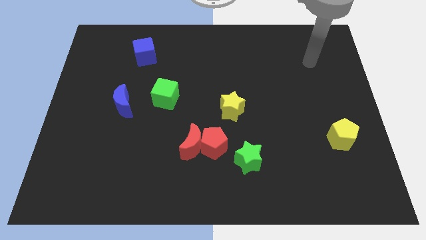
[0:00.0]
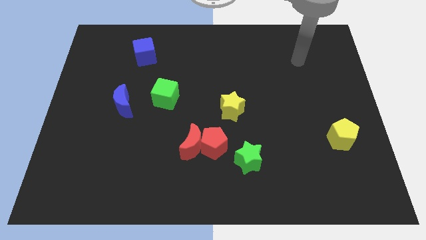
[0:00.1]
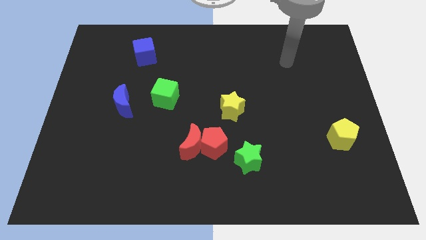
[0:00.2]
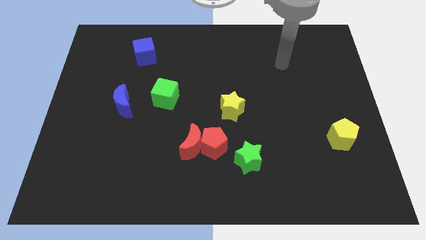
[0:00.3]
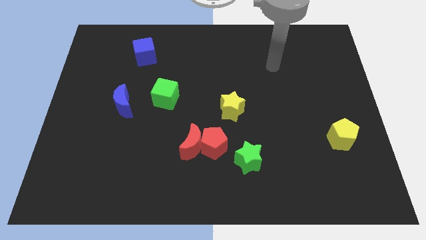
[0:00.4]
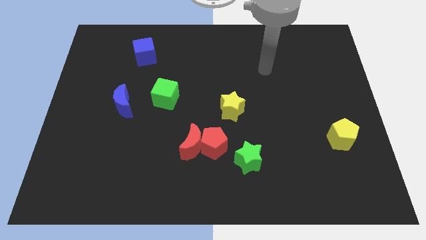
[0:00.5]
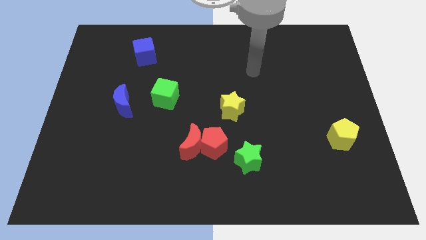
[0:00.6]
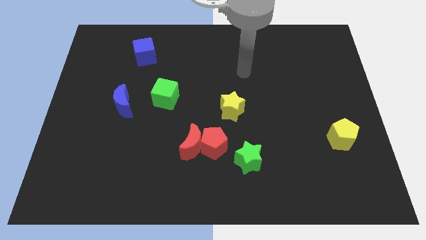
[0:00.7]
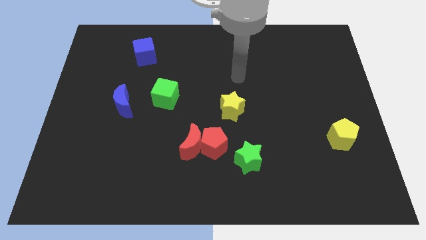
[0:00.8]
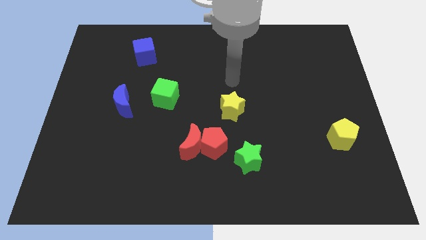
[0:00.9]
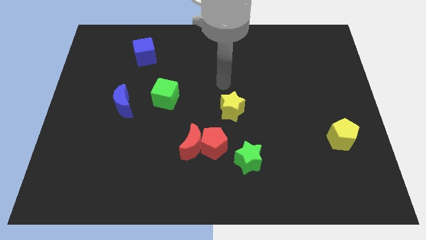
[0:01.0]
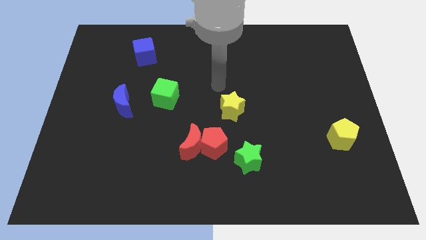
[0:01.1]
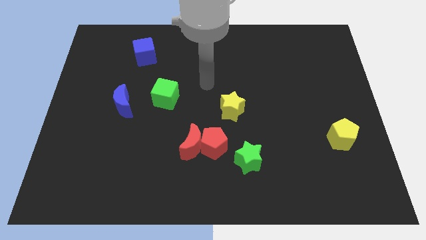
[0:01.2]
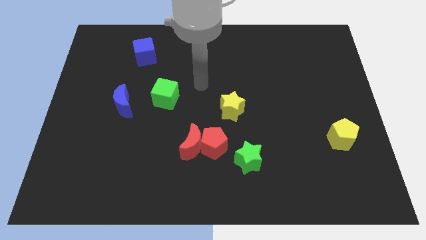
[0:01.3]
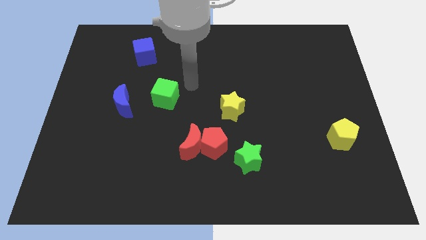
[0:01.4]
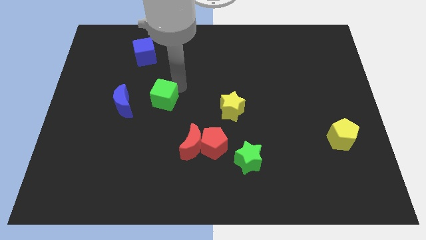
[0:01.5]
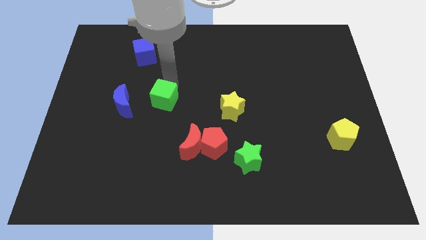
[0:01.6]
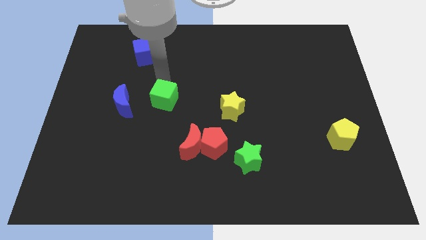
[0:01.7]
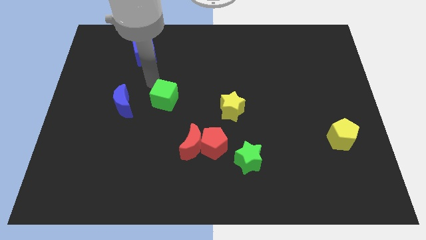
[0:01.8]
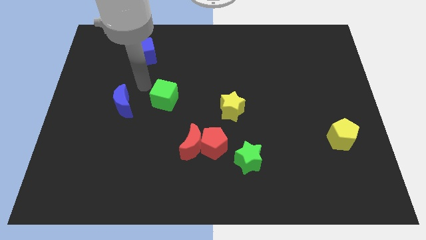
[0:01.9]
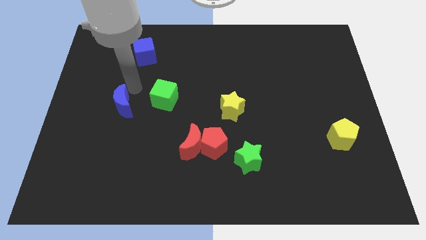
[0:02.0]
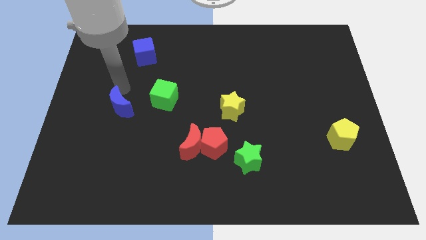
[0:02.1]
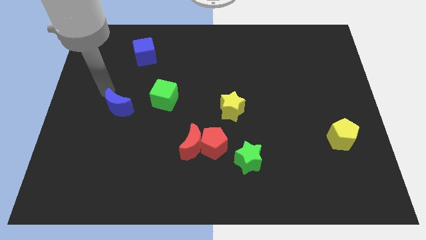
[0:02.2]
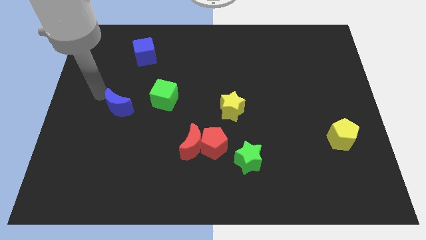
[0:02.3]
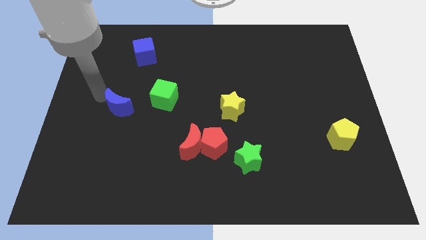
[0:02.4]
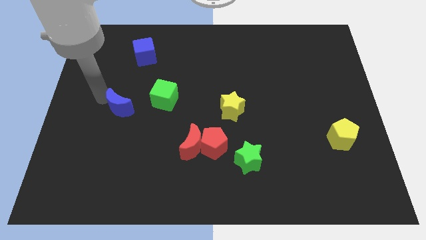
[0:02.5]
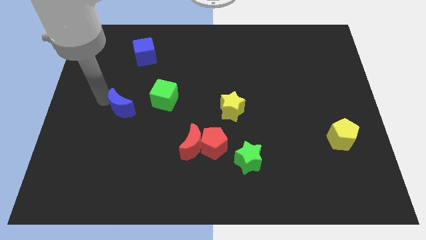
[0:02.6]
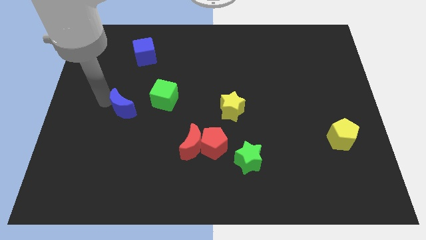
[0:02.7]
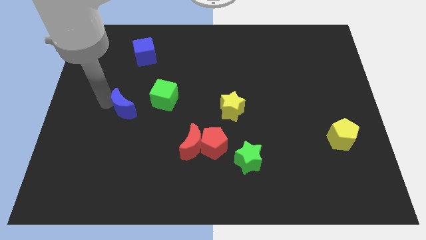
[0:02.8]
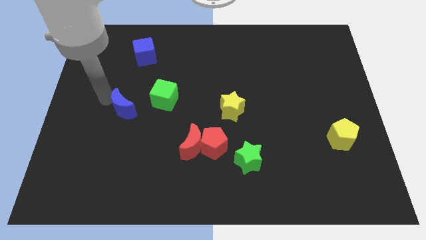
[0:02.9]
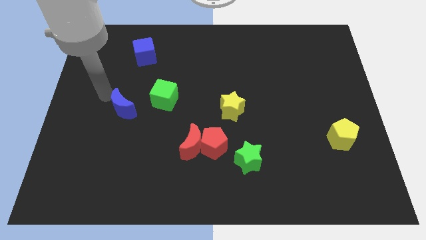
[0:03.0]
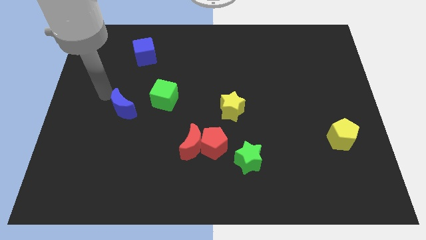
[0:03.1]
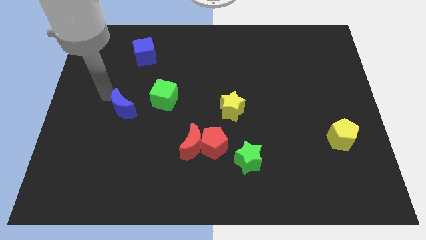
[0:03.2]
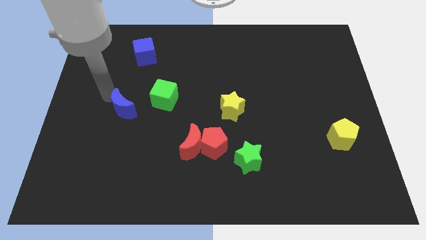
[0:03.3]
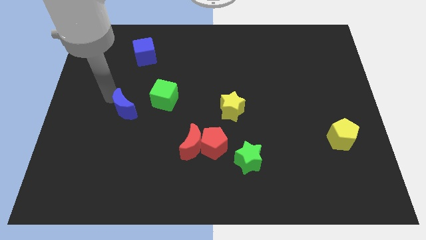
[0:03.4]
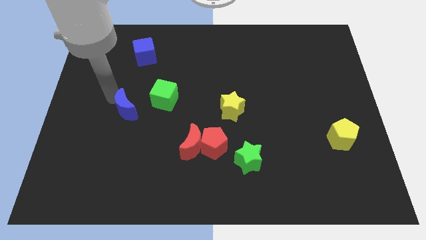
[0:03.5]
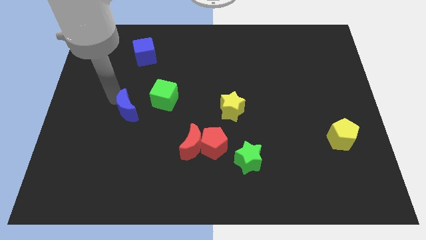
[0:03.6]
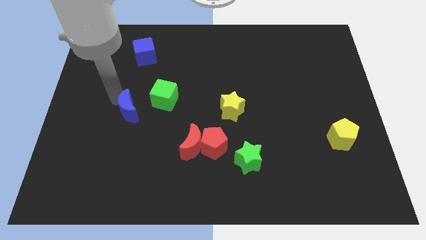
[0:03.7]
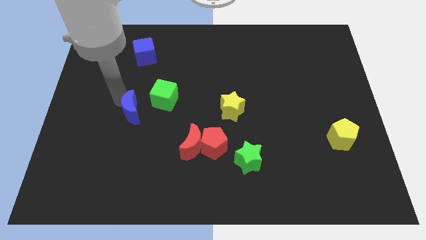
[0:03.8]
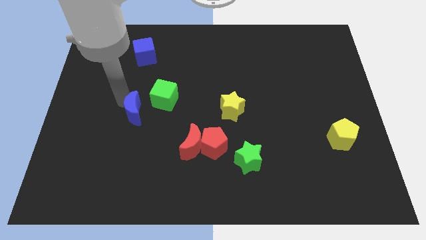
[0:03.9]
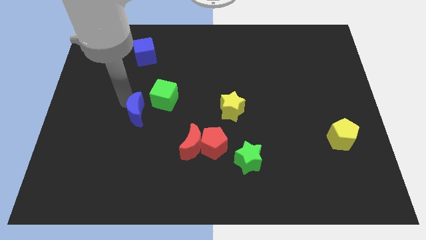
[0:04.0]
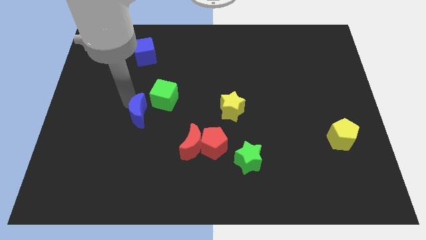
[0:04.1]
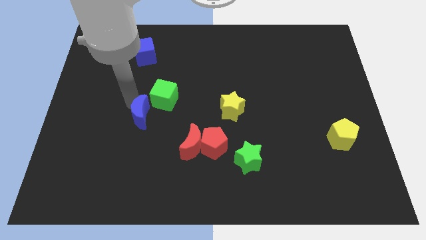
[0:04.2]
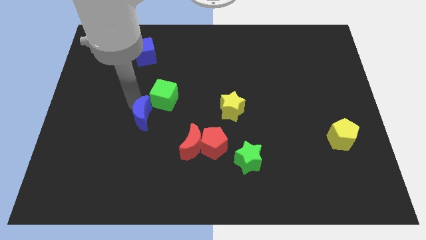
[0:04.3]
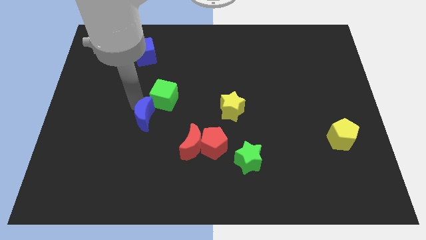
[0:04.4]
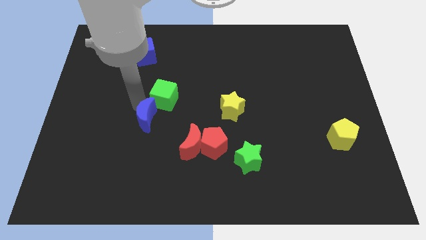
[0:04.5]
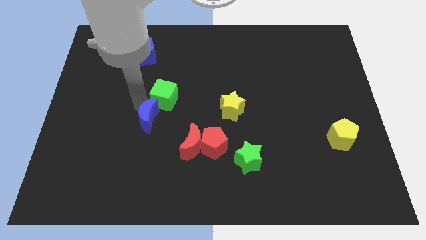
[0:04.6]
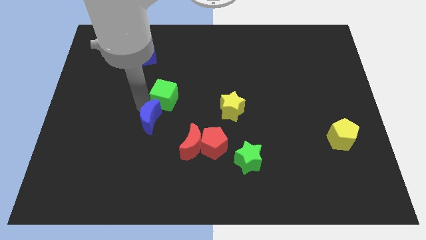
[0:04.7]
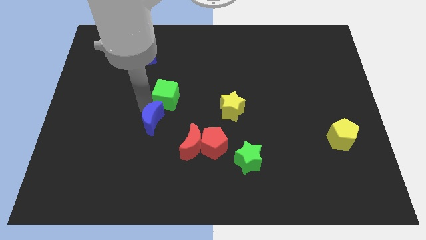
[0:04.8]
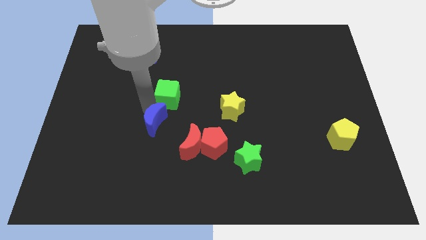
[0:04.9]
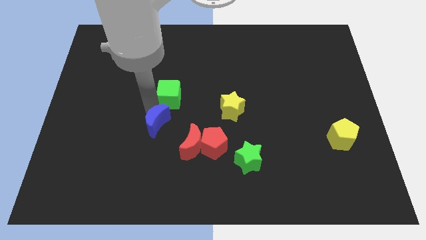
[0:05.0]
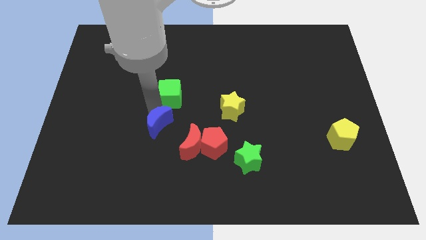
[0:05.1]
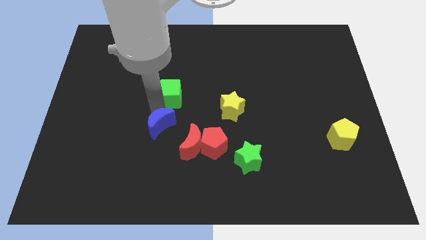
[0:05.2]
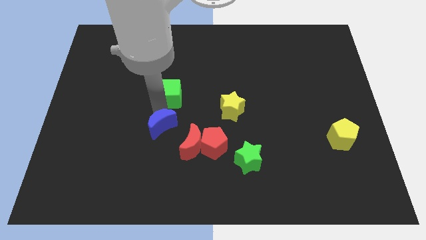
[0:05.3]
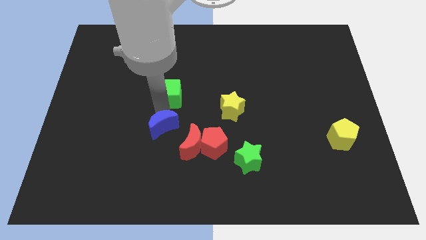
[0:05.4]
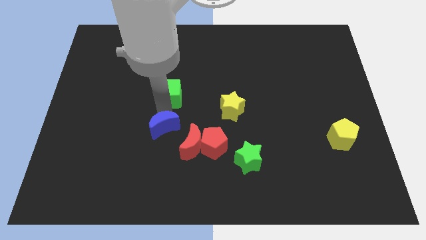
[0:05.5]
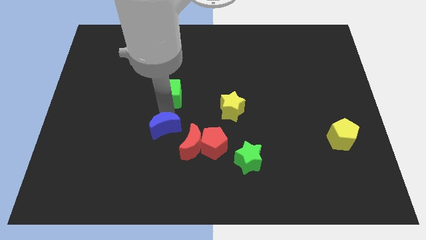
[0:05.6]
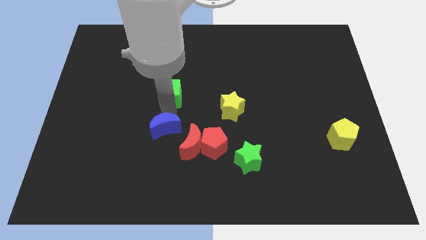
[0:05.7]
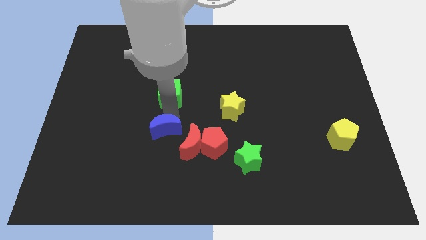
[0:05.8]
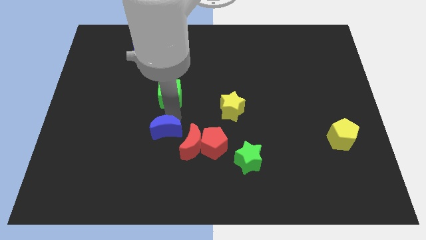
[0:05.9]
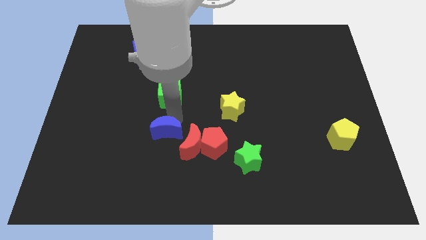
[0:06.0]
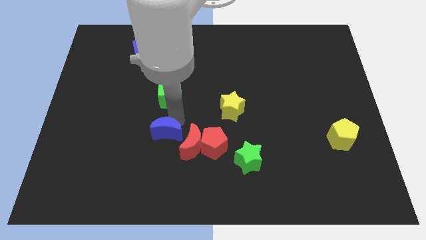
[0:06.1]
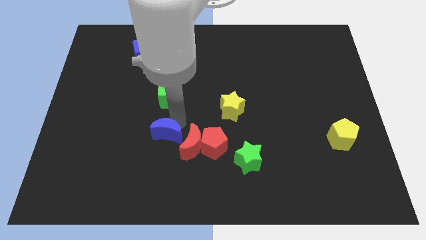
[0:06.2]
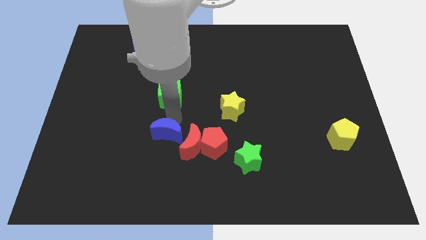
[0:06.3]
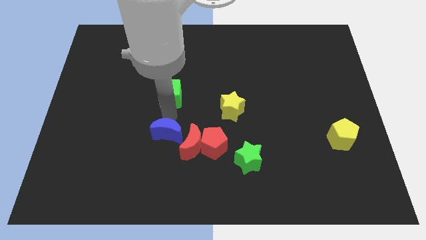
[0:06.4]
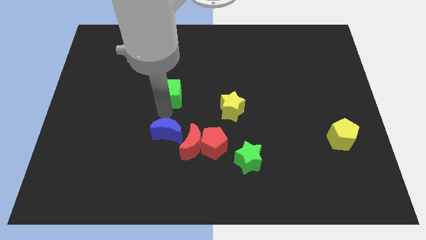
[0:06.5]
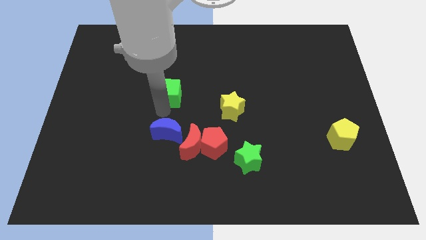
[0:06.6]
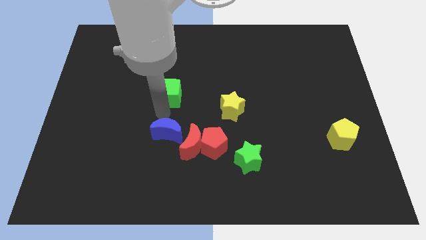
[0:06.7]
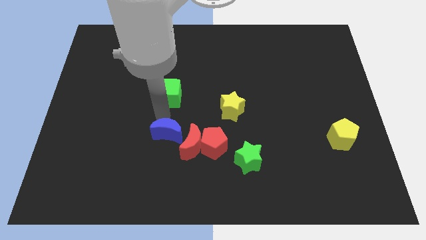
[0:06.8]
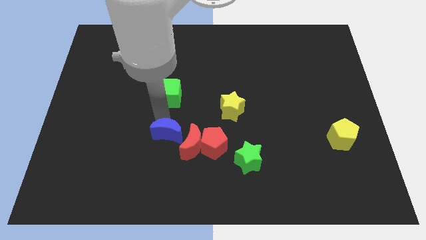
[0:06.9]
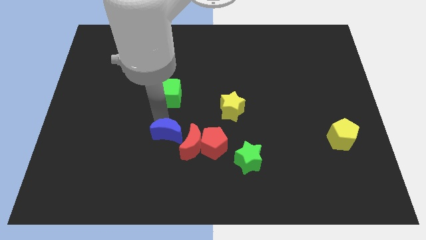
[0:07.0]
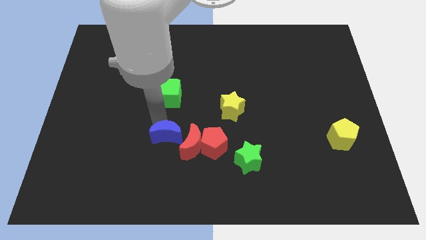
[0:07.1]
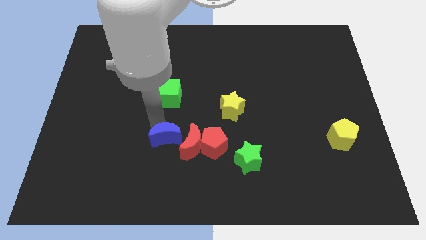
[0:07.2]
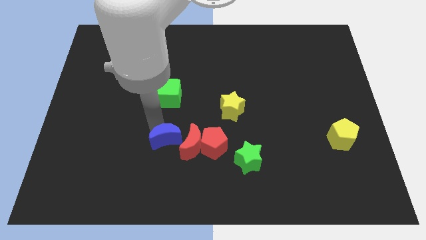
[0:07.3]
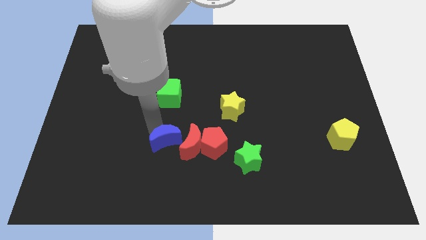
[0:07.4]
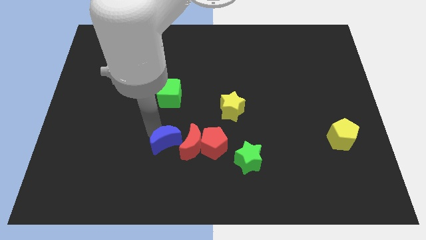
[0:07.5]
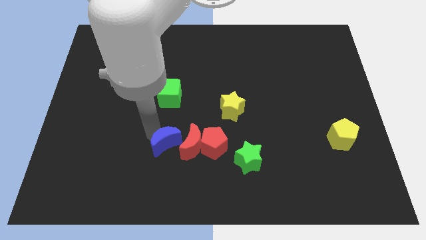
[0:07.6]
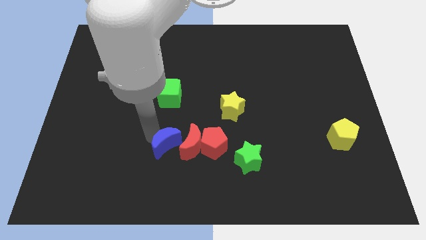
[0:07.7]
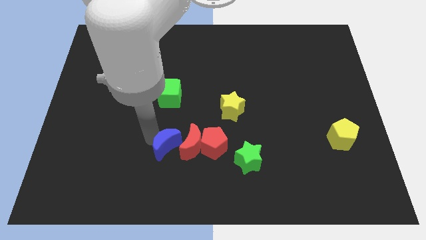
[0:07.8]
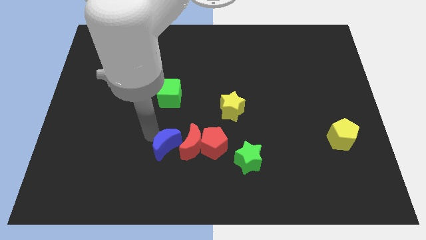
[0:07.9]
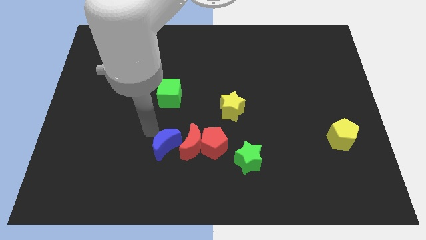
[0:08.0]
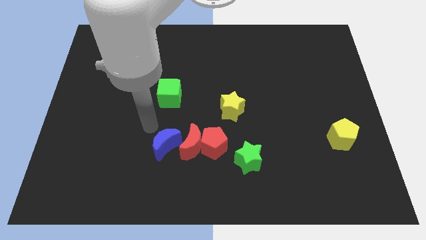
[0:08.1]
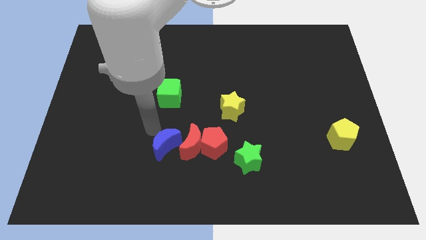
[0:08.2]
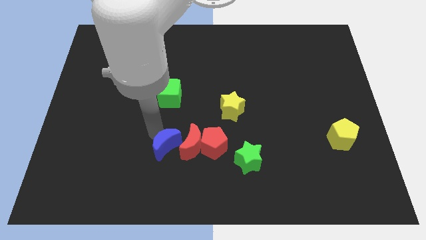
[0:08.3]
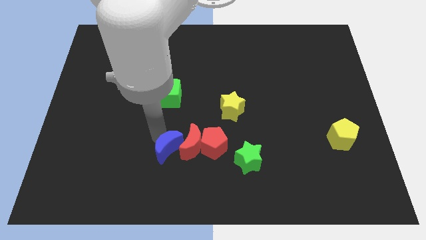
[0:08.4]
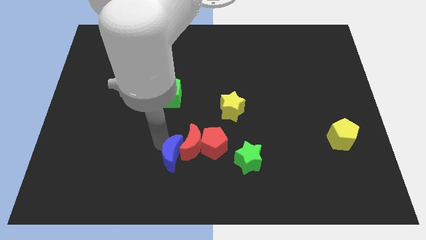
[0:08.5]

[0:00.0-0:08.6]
move the blue moon to the left of the green star
